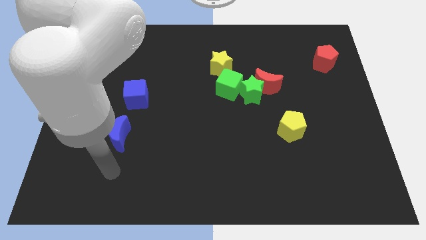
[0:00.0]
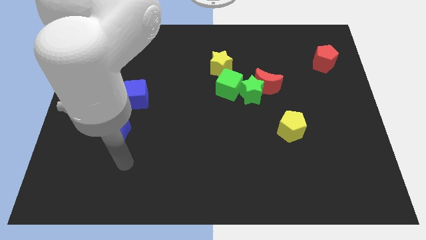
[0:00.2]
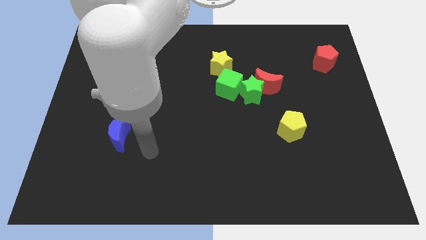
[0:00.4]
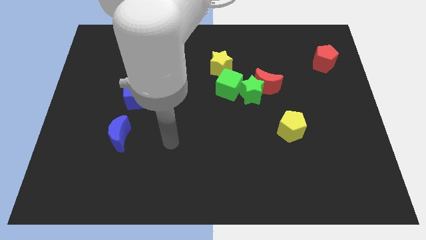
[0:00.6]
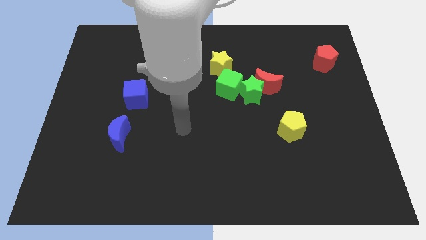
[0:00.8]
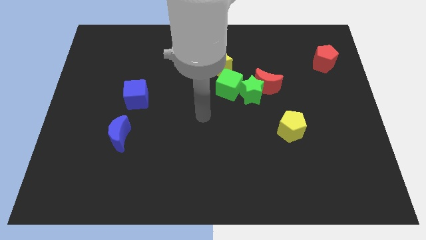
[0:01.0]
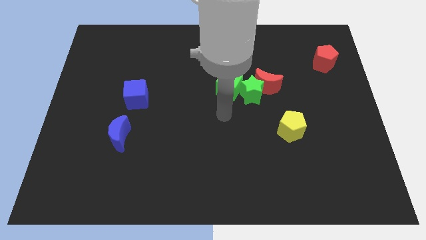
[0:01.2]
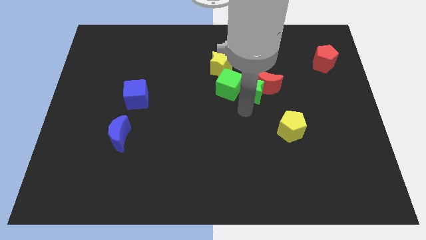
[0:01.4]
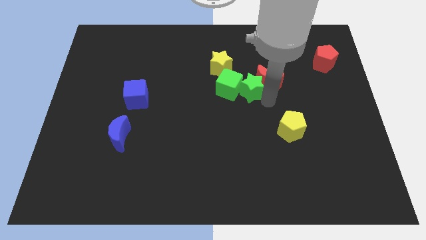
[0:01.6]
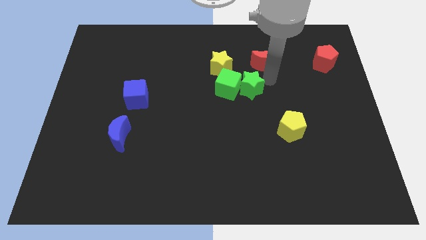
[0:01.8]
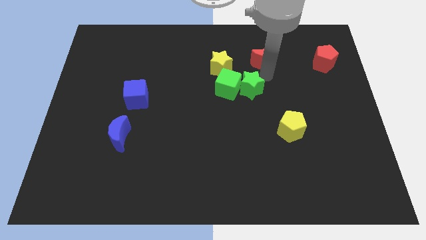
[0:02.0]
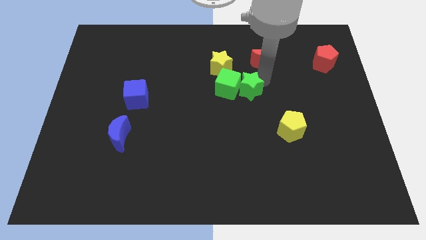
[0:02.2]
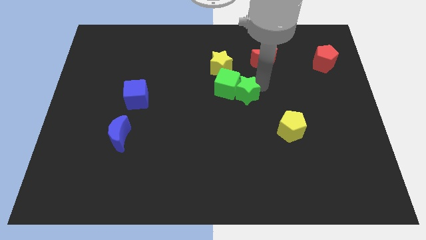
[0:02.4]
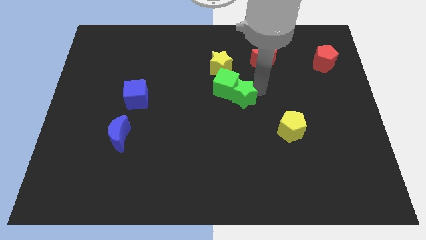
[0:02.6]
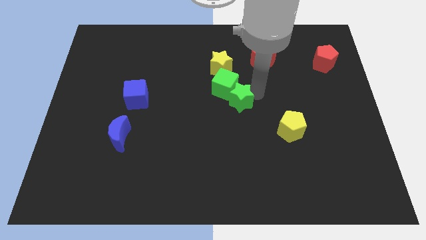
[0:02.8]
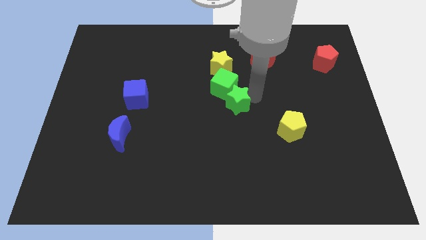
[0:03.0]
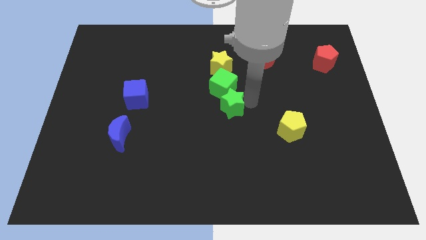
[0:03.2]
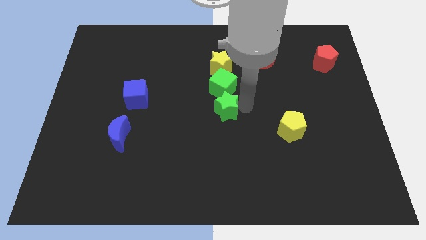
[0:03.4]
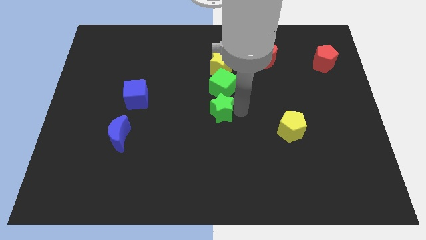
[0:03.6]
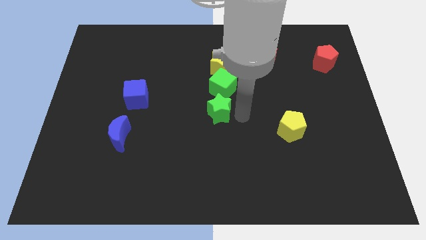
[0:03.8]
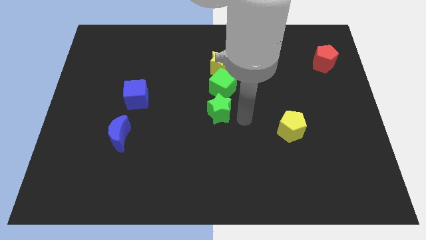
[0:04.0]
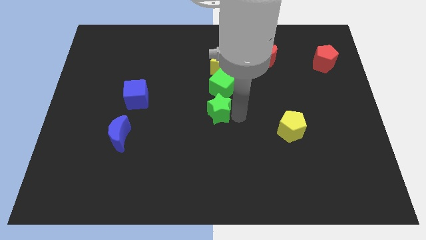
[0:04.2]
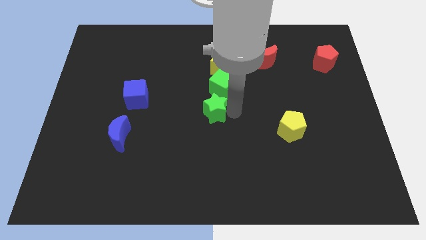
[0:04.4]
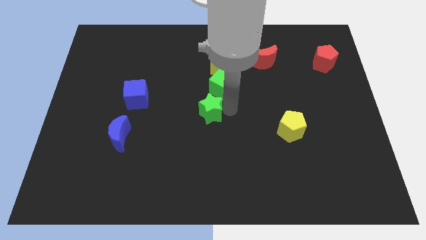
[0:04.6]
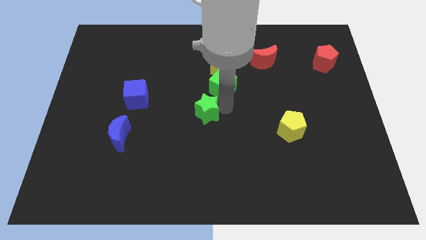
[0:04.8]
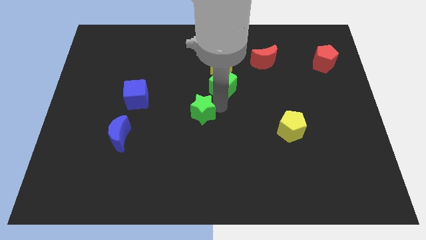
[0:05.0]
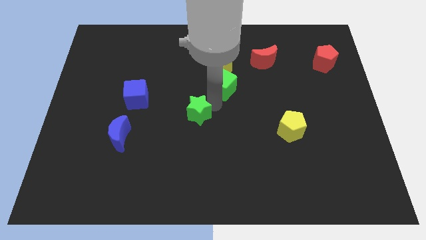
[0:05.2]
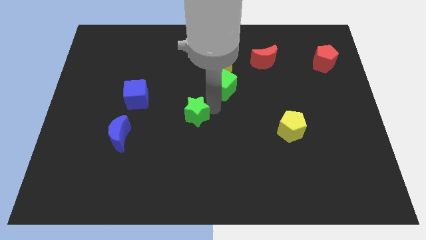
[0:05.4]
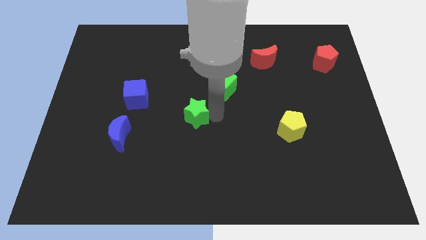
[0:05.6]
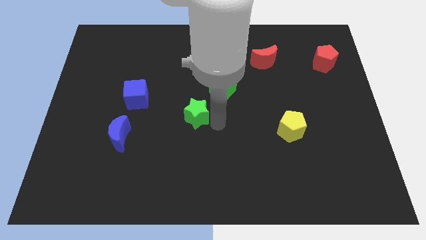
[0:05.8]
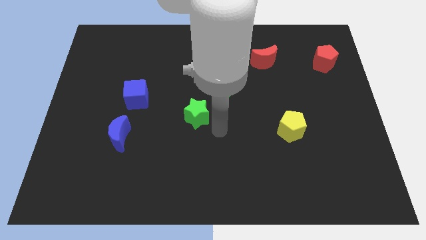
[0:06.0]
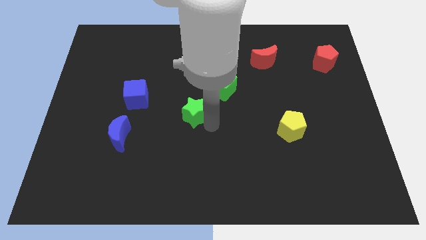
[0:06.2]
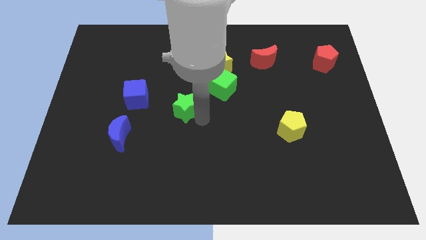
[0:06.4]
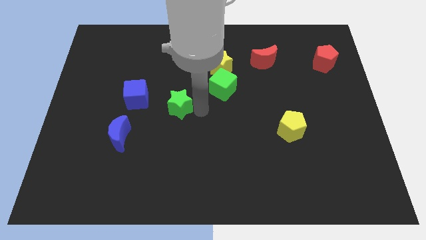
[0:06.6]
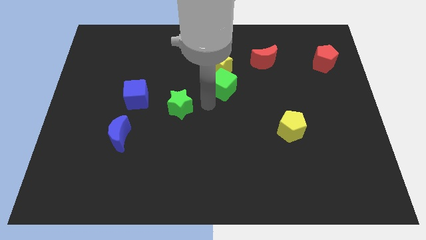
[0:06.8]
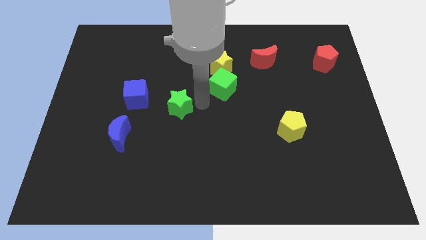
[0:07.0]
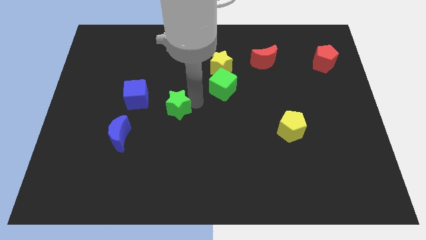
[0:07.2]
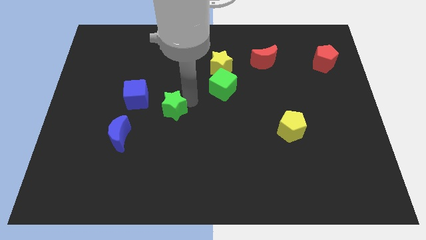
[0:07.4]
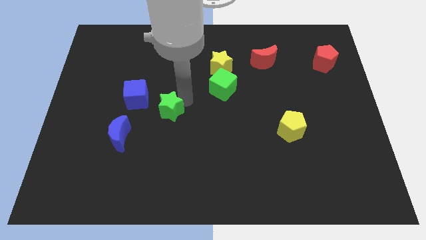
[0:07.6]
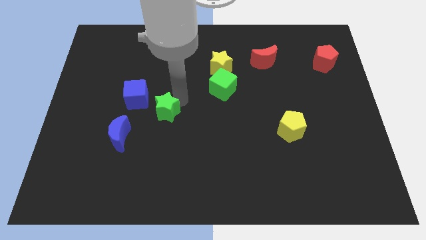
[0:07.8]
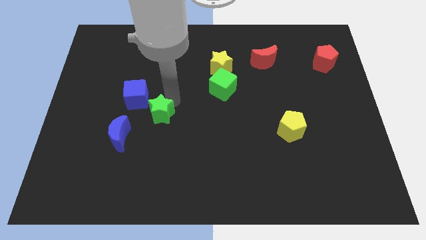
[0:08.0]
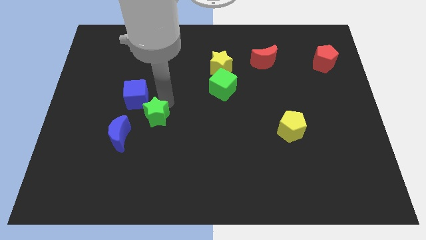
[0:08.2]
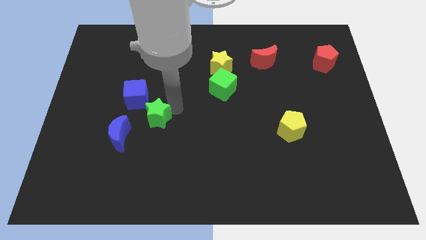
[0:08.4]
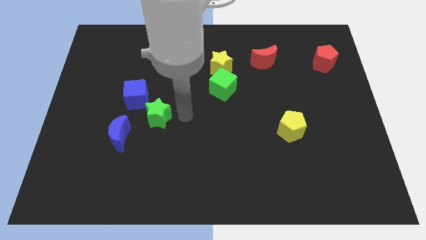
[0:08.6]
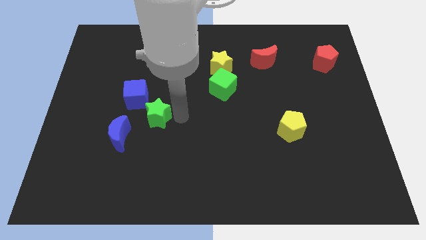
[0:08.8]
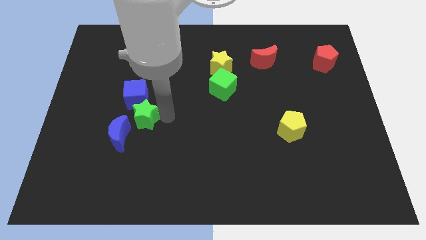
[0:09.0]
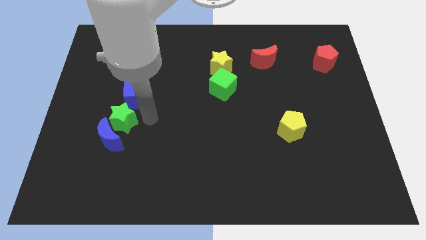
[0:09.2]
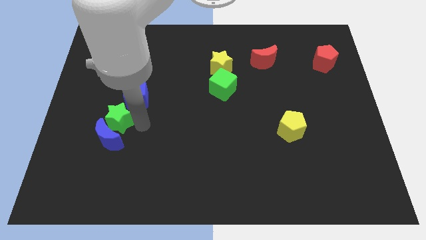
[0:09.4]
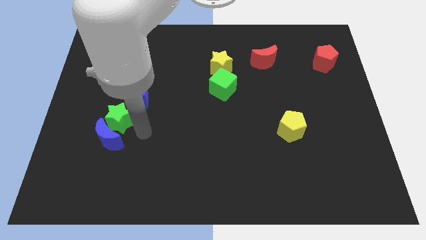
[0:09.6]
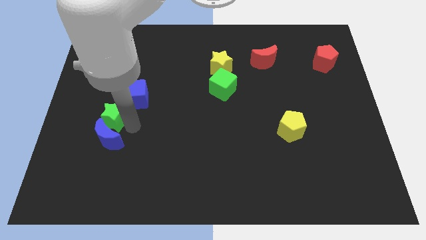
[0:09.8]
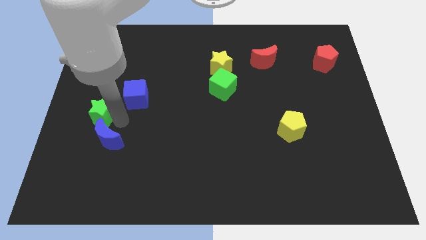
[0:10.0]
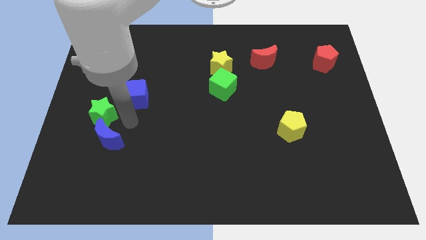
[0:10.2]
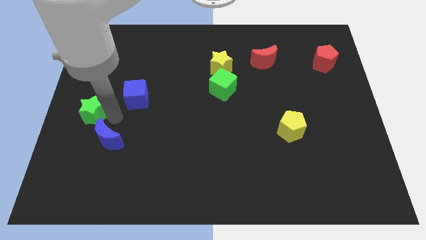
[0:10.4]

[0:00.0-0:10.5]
move the green star to the left side

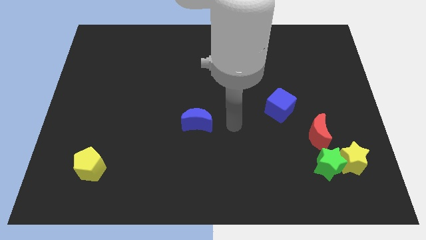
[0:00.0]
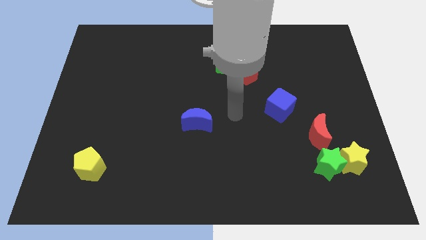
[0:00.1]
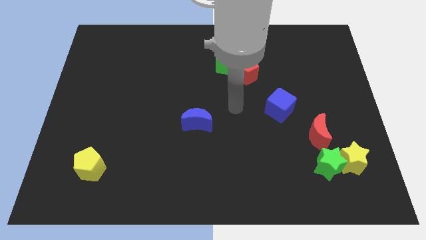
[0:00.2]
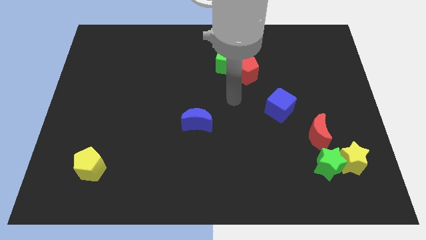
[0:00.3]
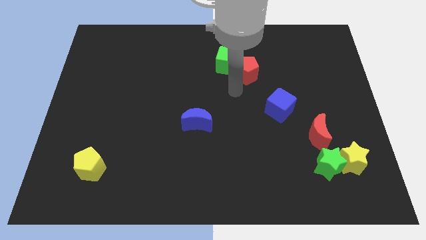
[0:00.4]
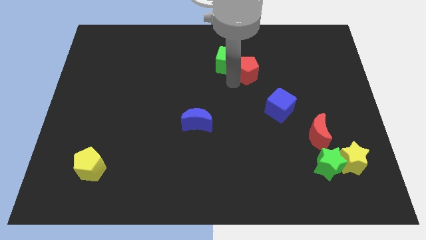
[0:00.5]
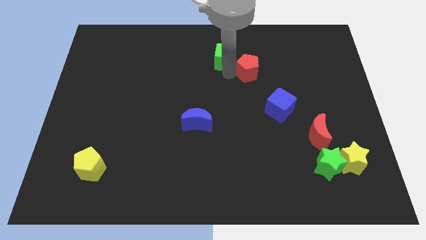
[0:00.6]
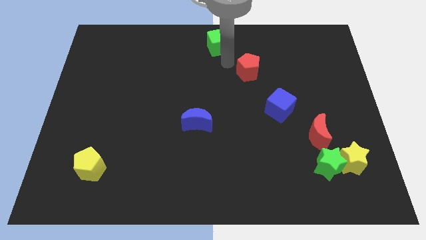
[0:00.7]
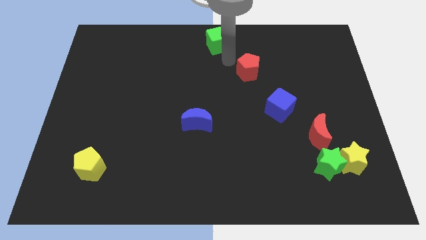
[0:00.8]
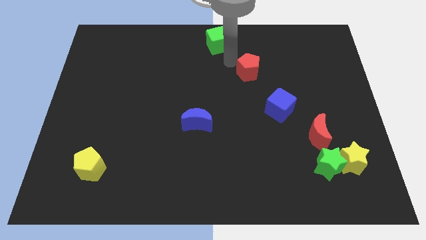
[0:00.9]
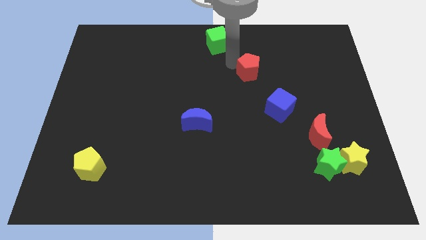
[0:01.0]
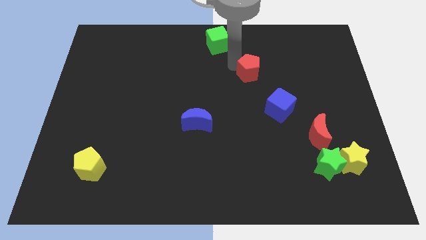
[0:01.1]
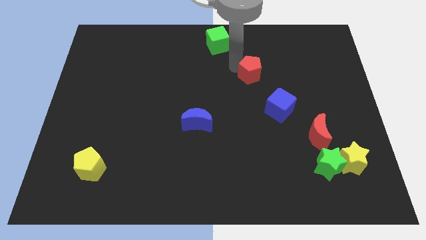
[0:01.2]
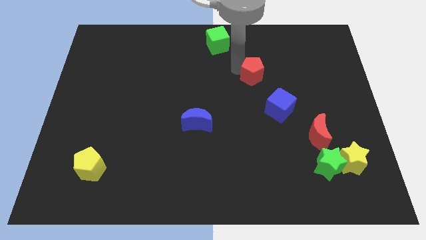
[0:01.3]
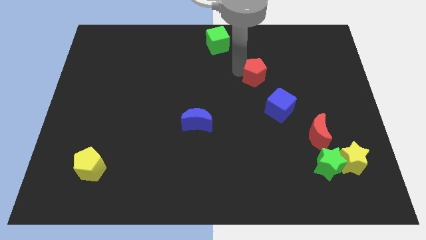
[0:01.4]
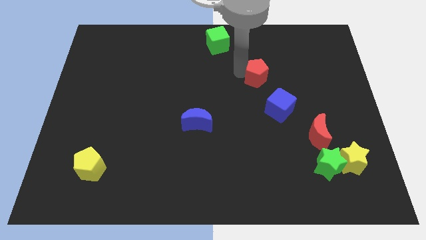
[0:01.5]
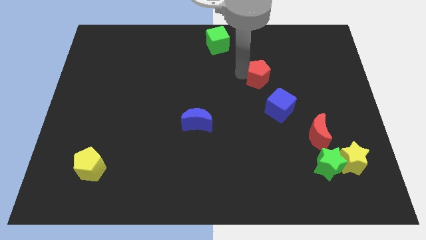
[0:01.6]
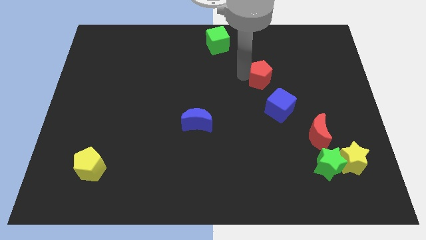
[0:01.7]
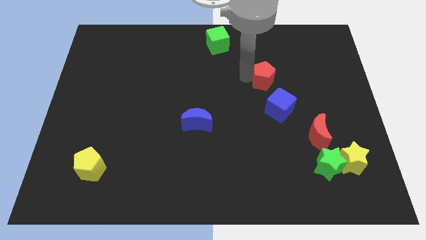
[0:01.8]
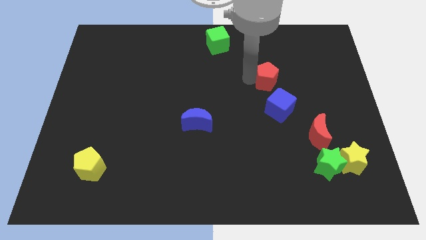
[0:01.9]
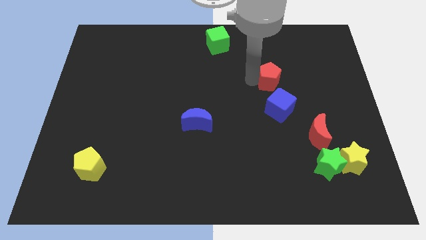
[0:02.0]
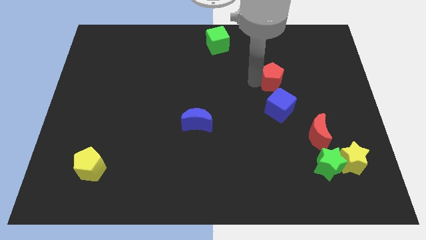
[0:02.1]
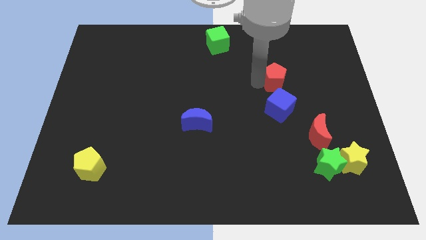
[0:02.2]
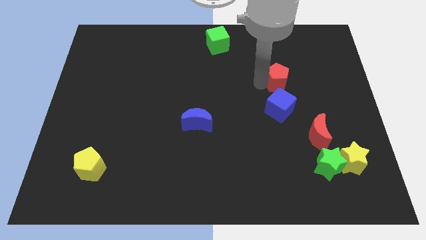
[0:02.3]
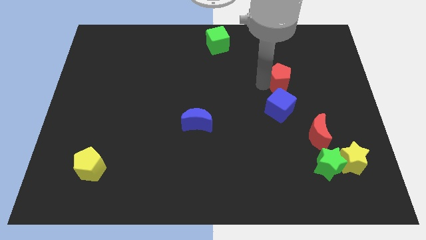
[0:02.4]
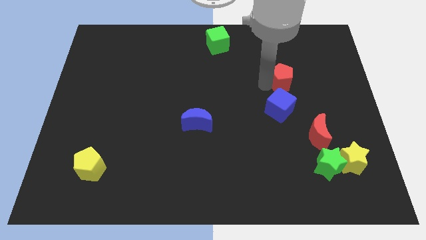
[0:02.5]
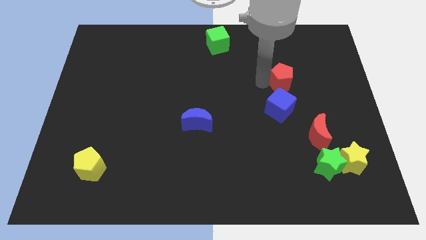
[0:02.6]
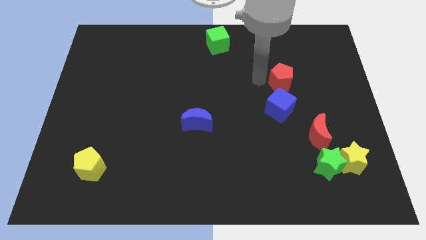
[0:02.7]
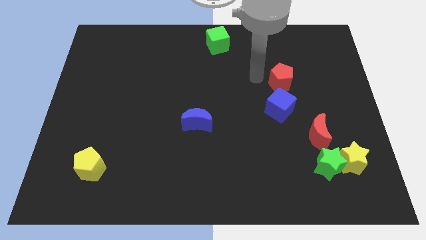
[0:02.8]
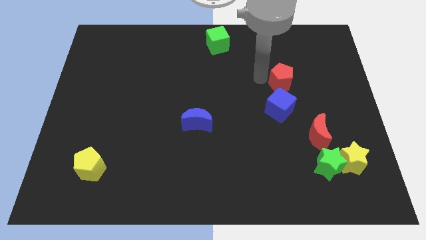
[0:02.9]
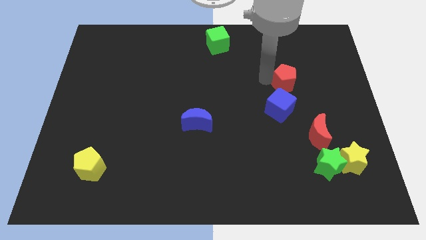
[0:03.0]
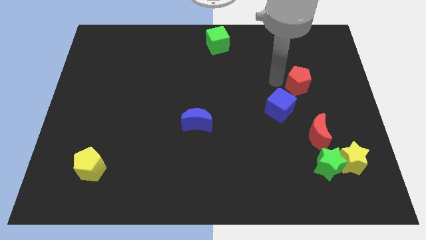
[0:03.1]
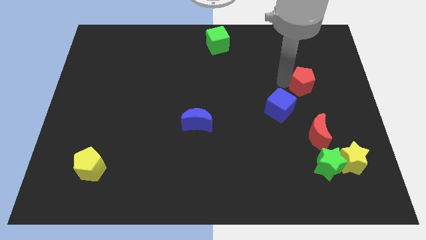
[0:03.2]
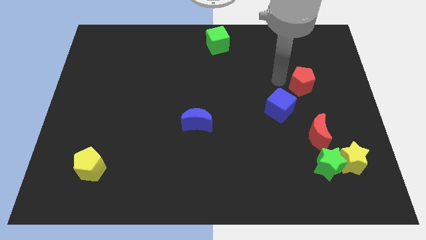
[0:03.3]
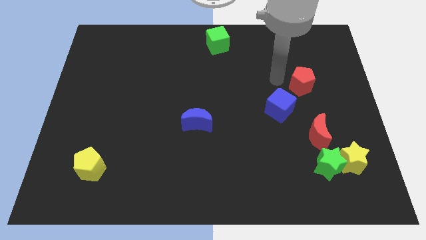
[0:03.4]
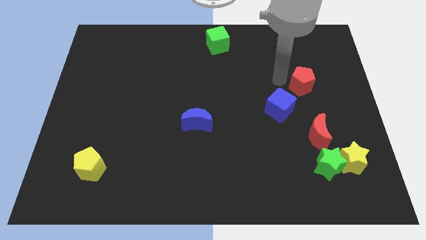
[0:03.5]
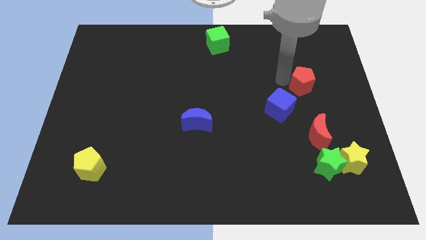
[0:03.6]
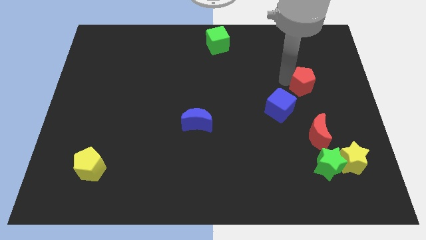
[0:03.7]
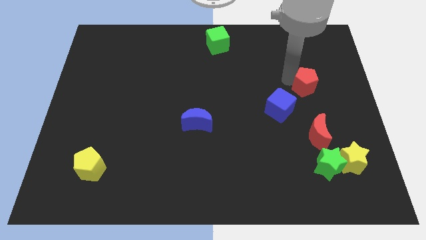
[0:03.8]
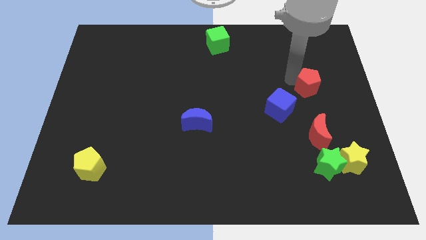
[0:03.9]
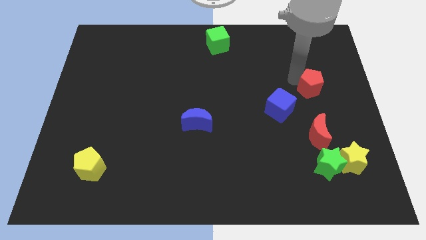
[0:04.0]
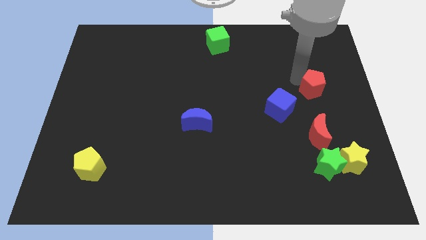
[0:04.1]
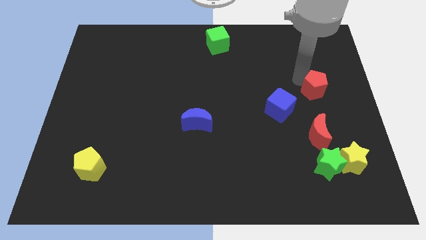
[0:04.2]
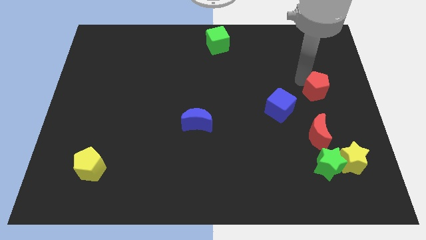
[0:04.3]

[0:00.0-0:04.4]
push the red pentagon to the center right
